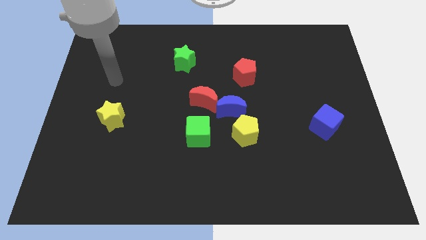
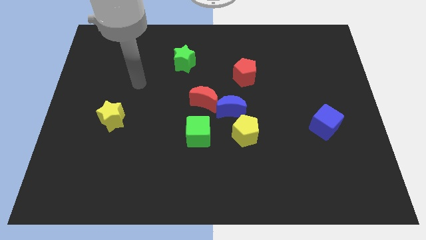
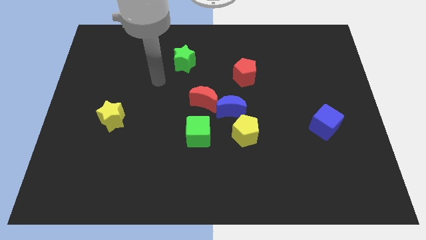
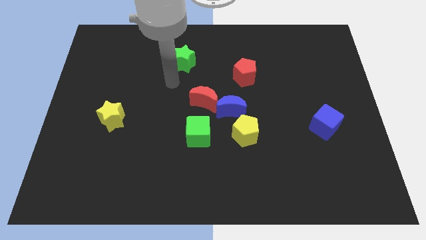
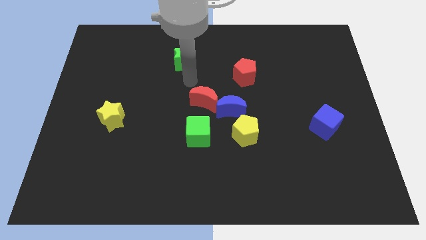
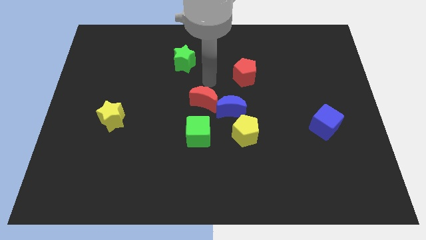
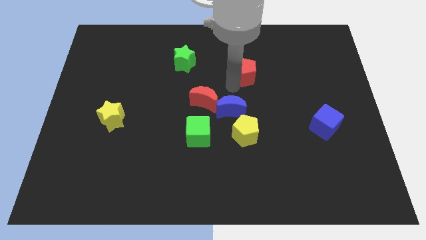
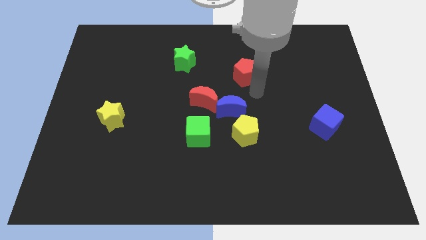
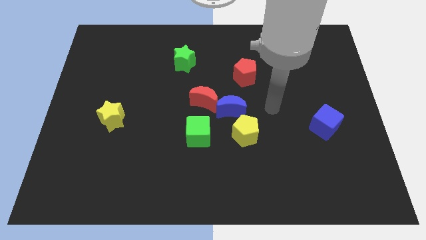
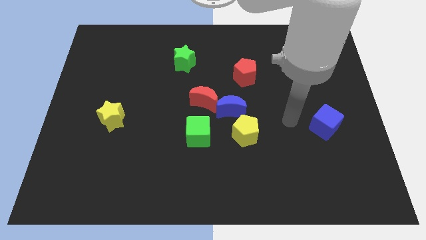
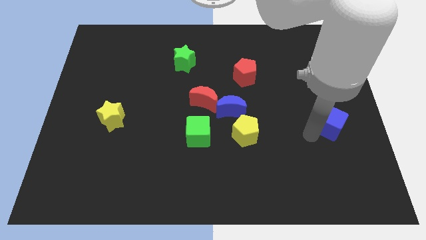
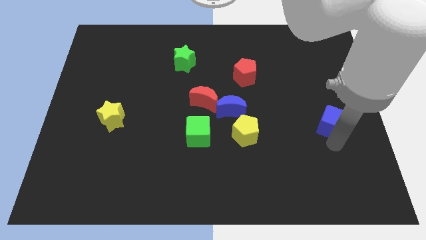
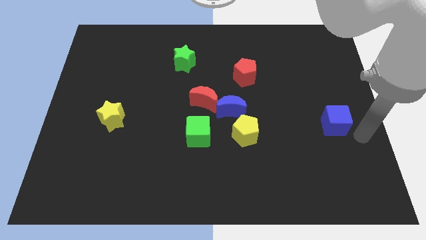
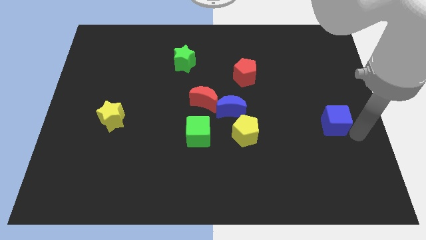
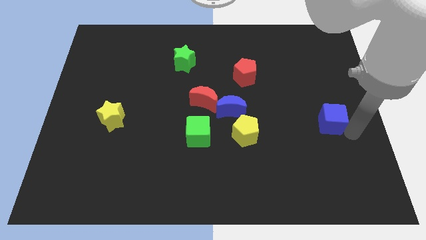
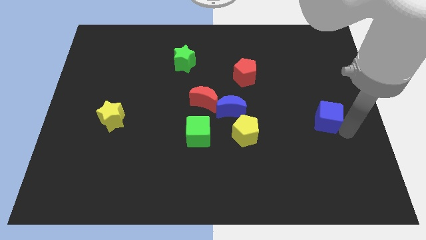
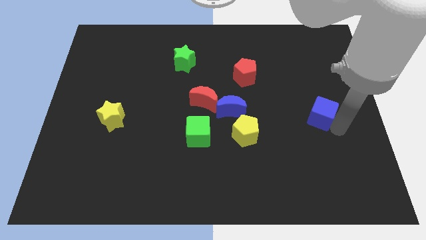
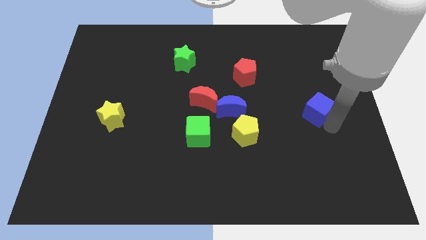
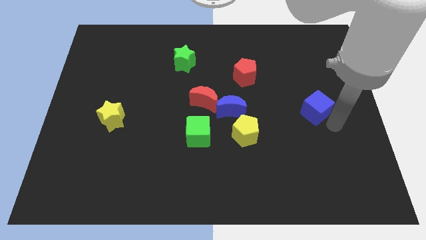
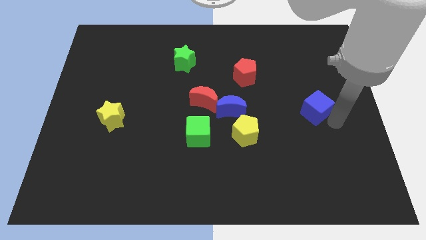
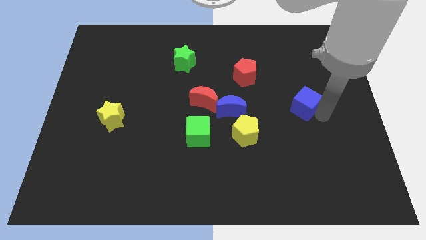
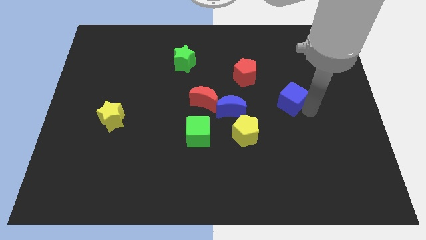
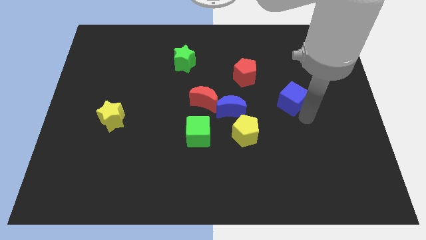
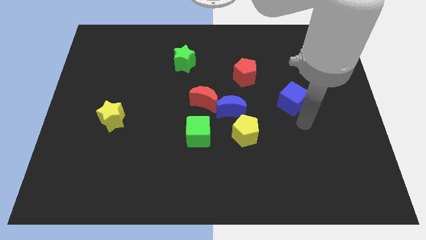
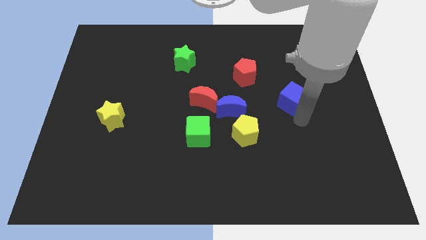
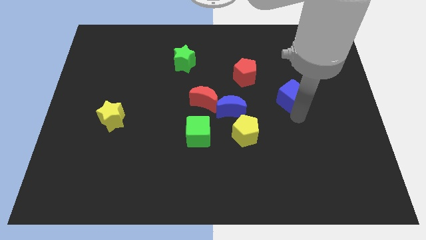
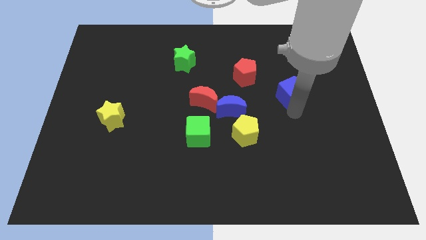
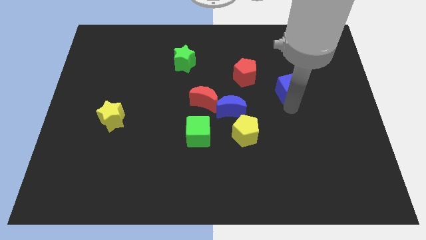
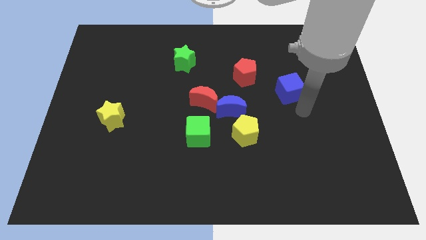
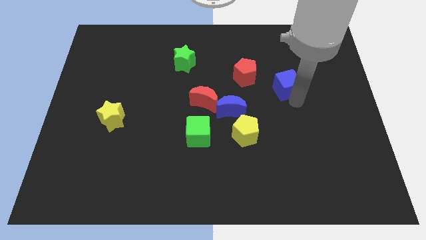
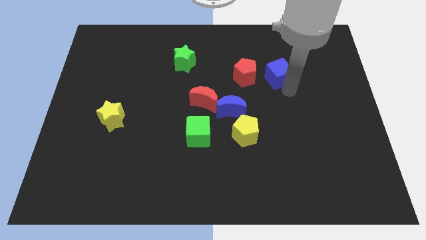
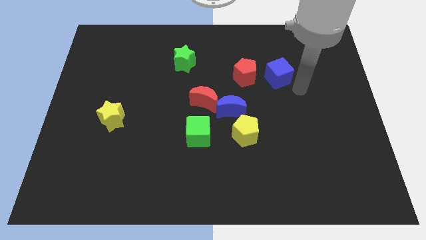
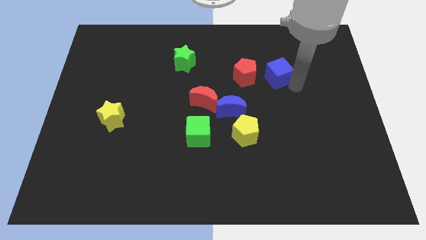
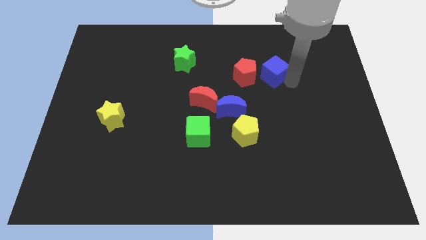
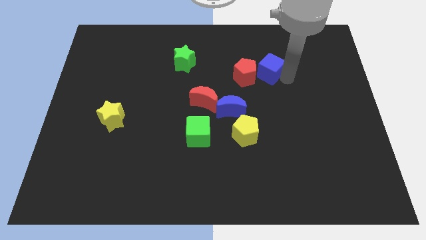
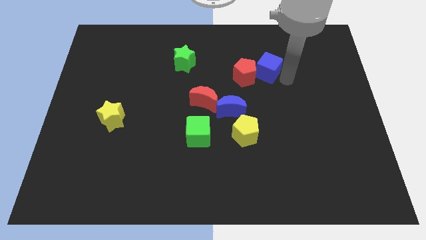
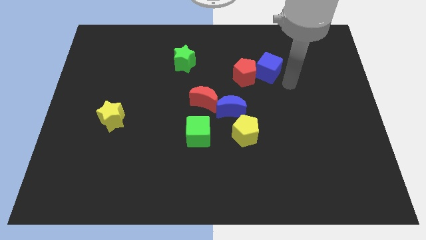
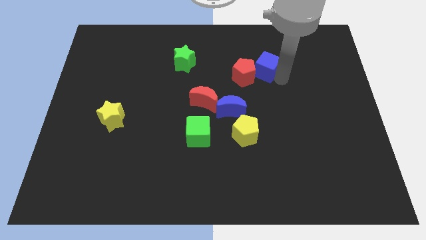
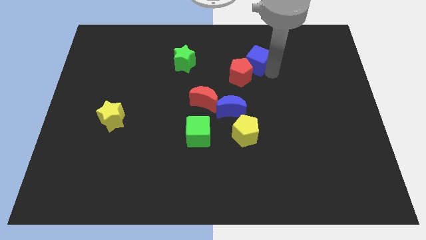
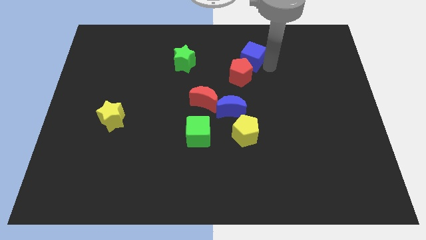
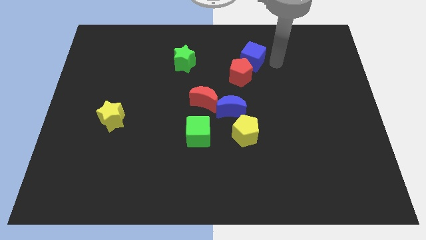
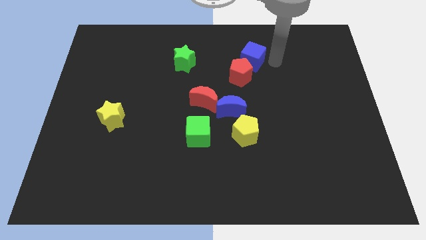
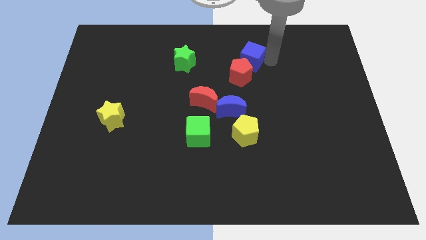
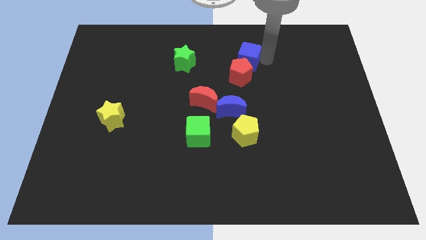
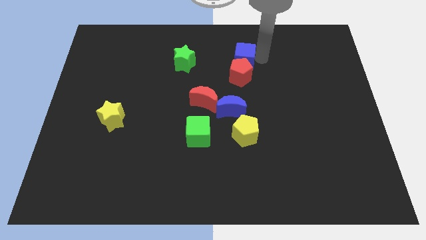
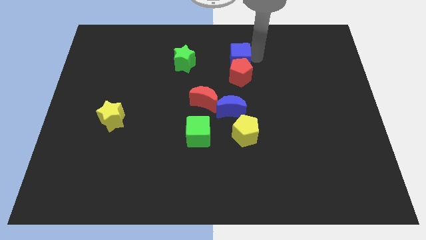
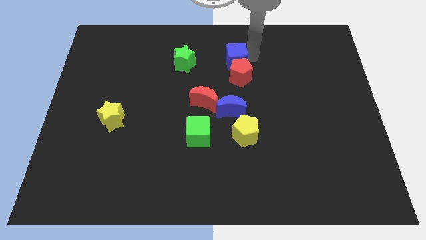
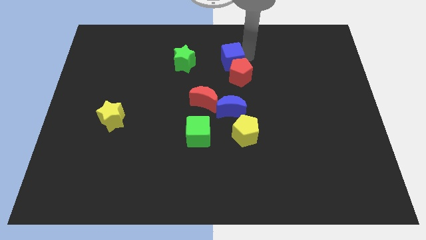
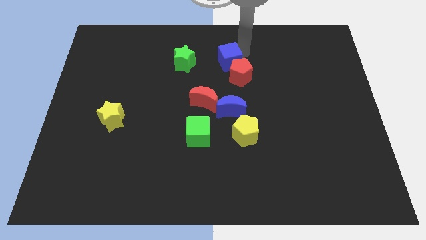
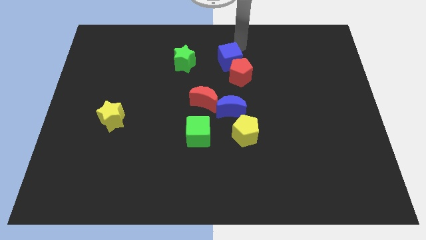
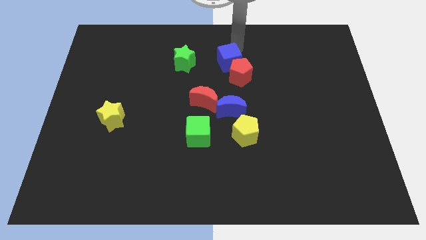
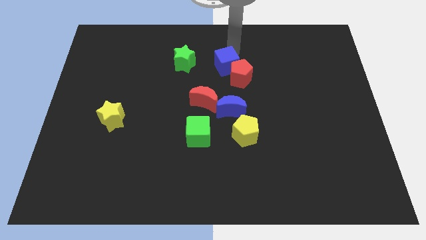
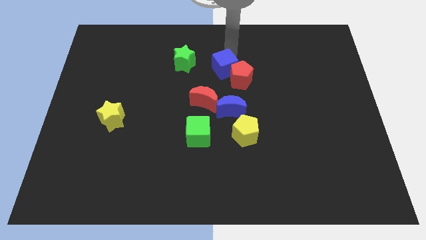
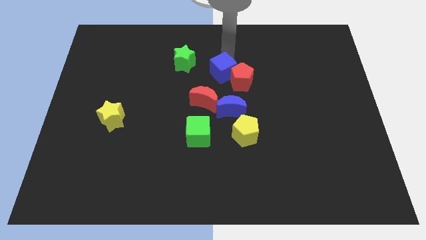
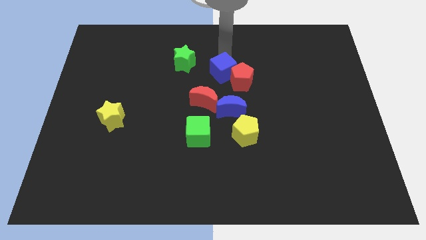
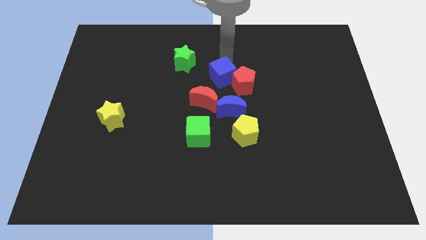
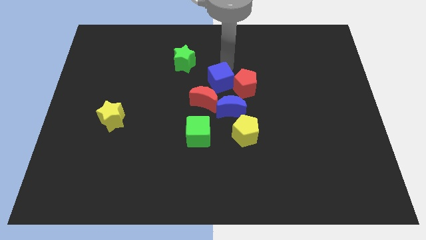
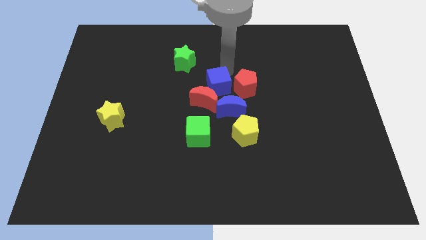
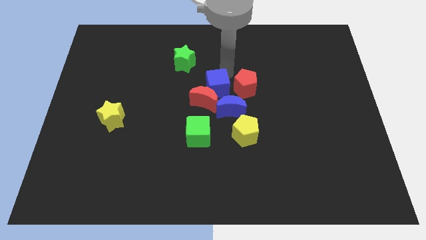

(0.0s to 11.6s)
push the blue cube diagonally down and to the left of the red pentagon

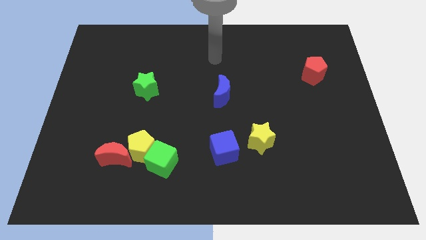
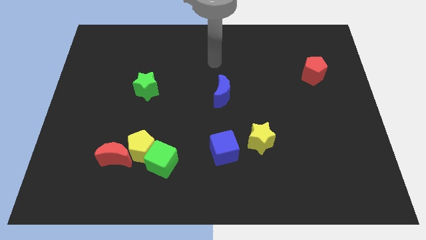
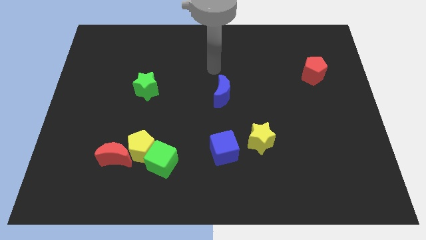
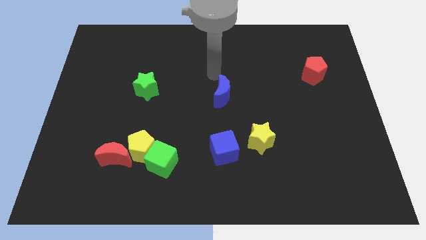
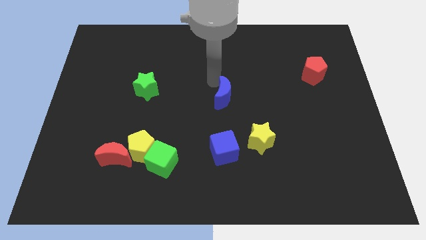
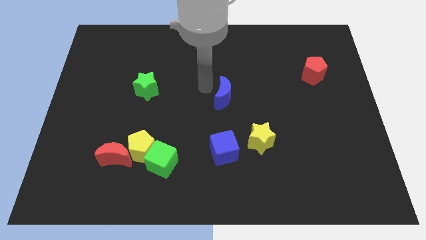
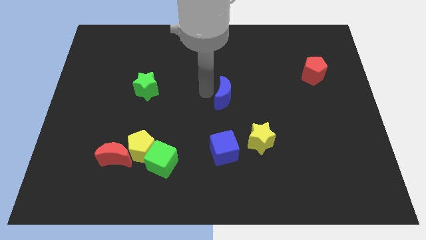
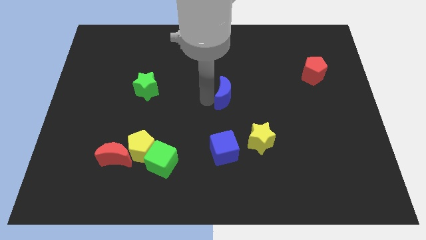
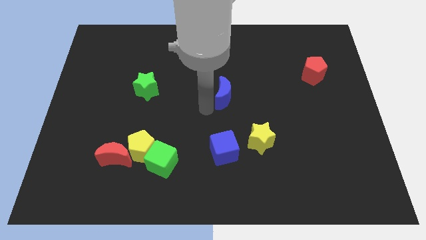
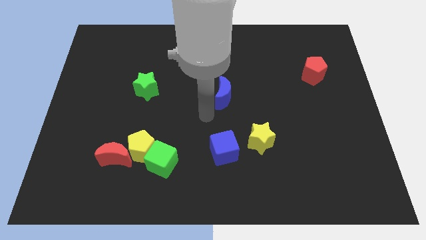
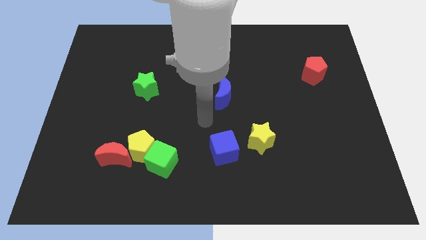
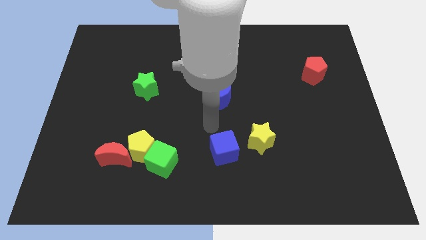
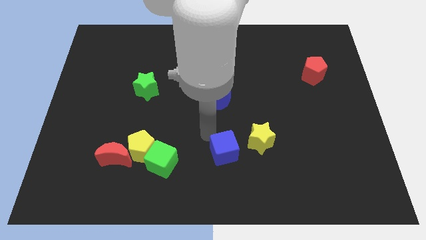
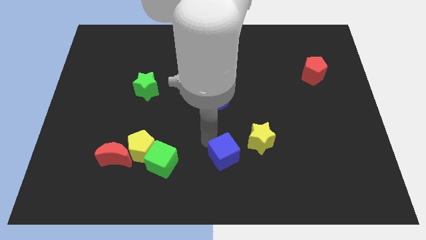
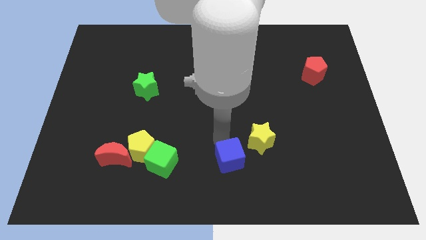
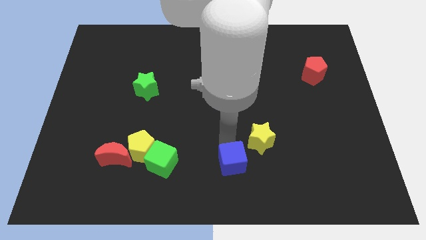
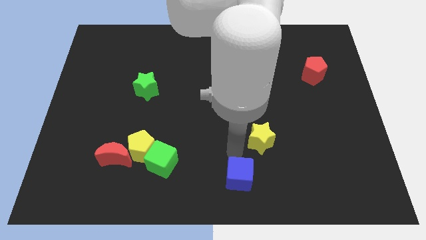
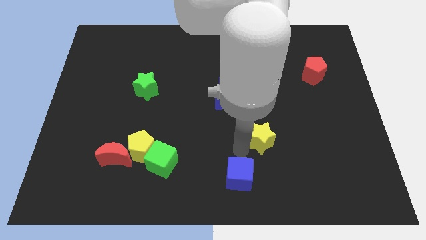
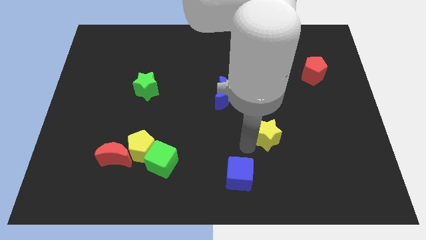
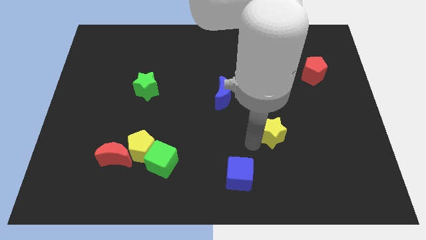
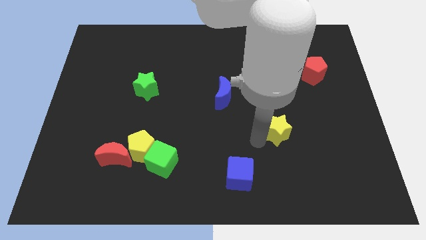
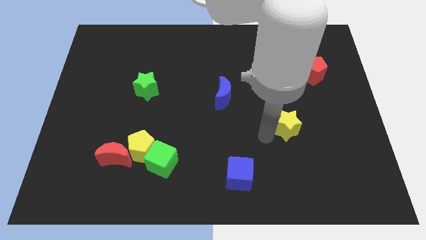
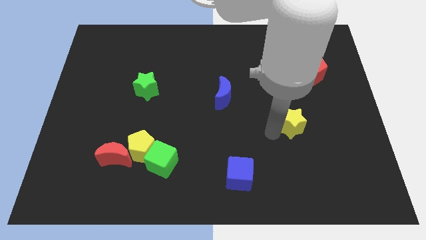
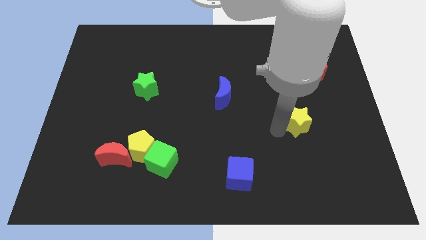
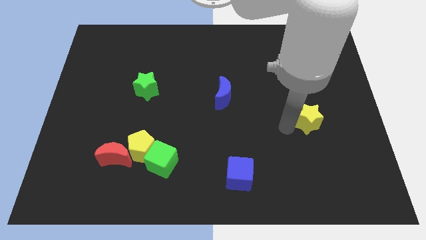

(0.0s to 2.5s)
slide the yellow star to the bottom of the red pentagon

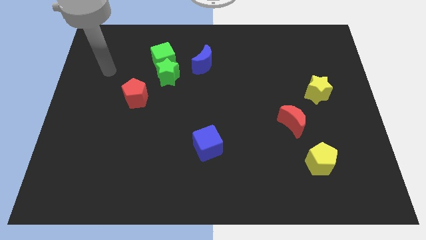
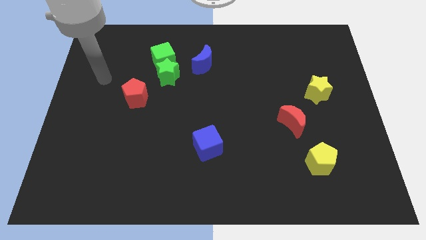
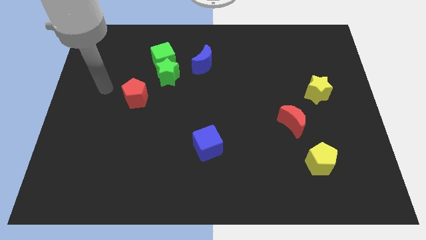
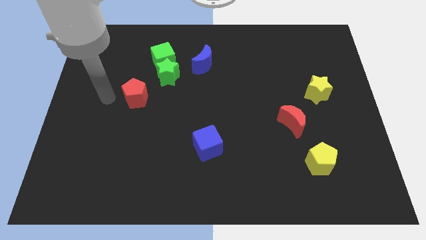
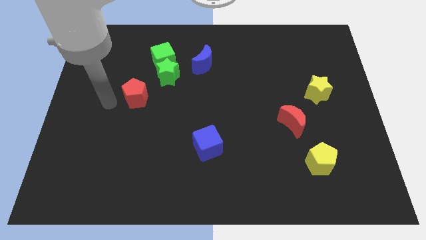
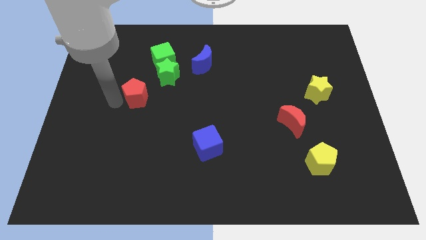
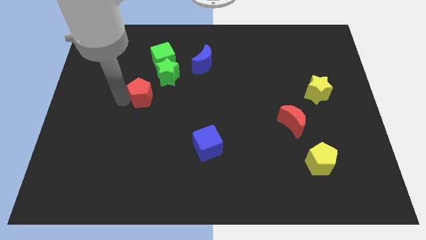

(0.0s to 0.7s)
put the red pentagon below the green cube
